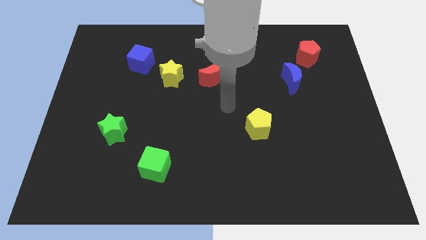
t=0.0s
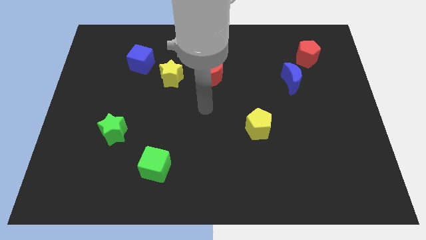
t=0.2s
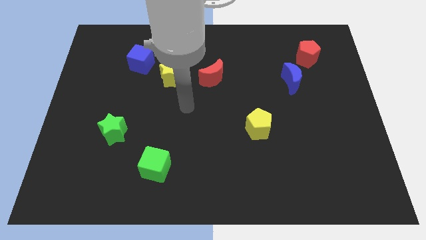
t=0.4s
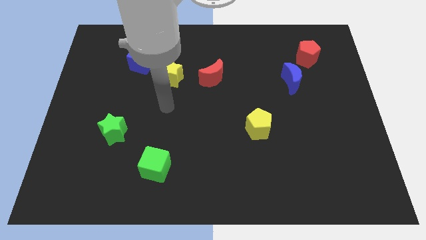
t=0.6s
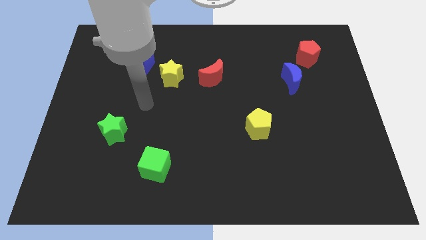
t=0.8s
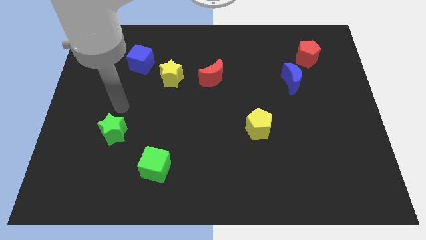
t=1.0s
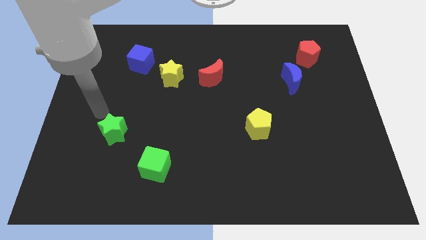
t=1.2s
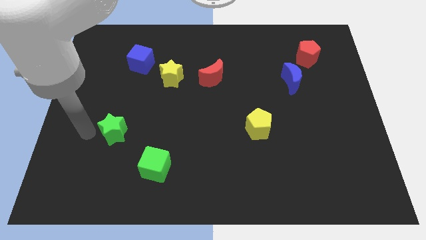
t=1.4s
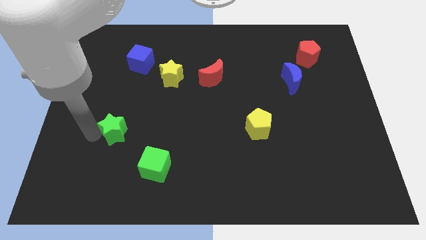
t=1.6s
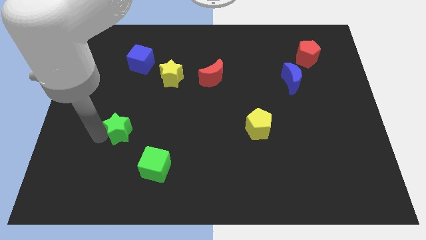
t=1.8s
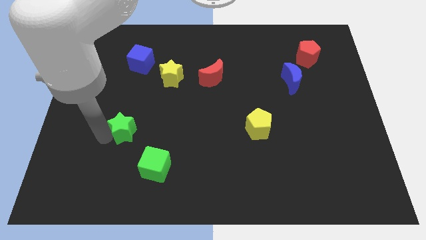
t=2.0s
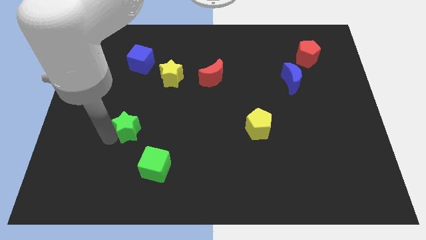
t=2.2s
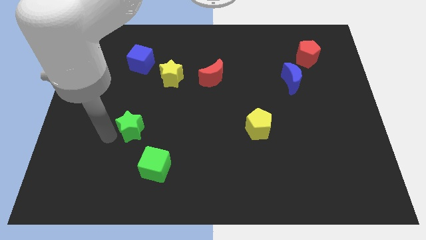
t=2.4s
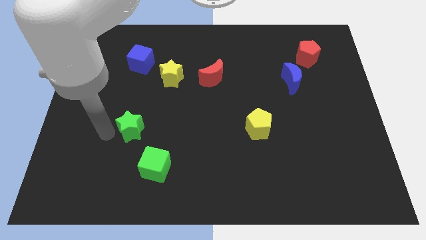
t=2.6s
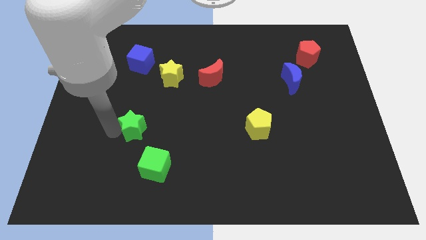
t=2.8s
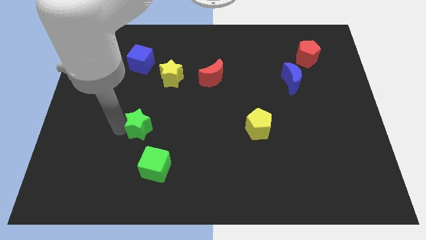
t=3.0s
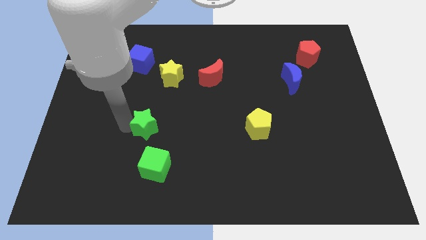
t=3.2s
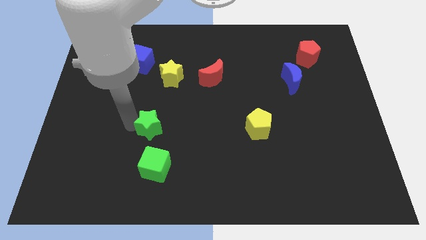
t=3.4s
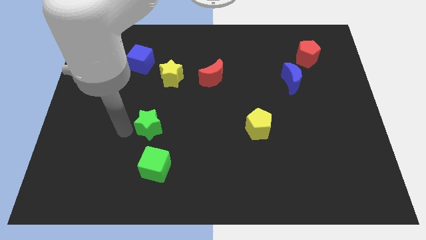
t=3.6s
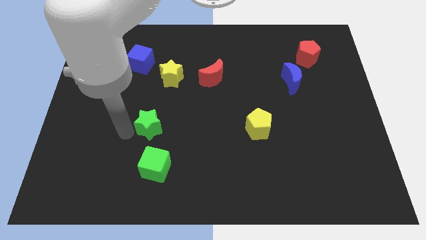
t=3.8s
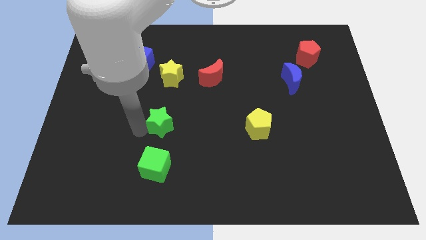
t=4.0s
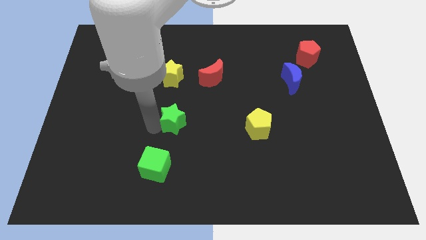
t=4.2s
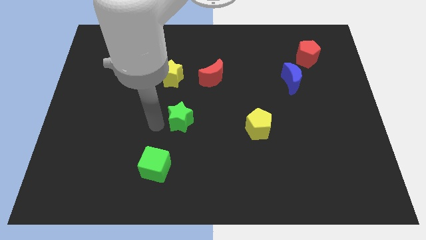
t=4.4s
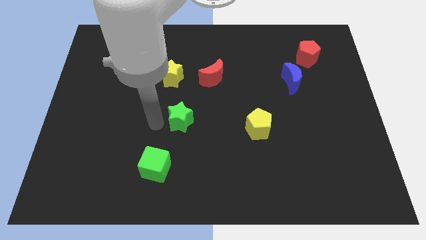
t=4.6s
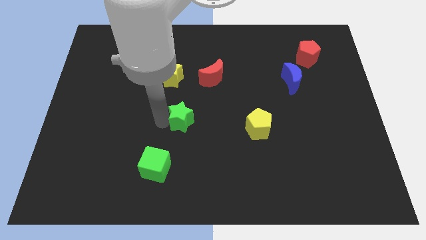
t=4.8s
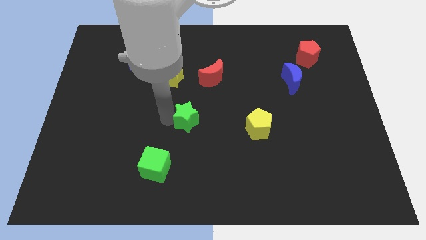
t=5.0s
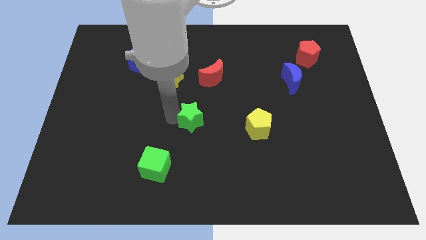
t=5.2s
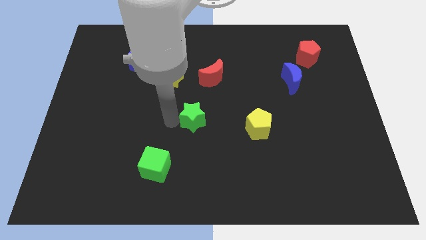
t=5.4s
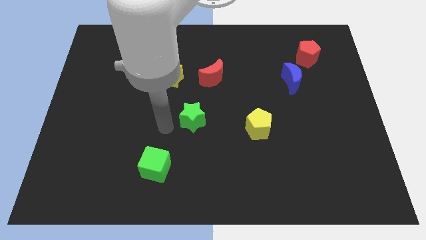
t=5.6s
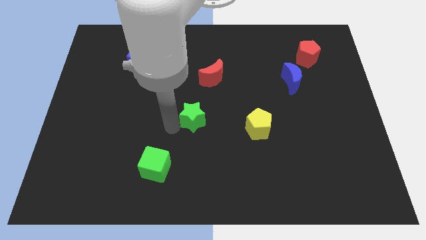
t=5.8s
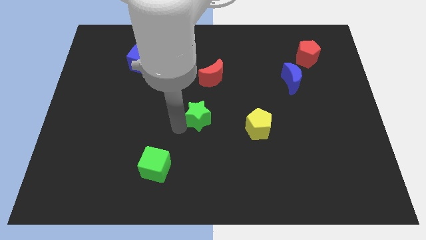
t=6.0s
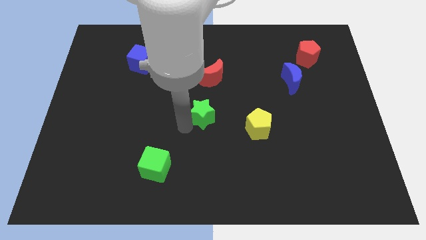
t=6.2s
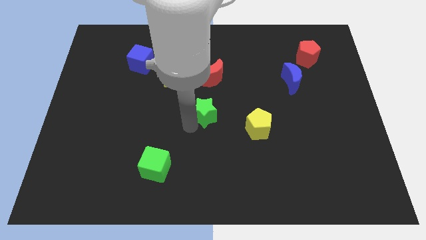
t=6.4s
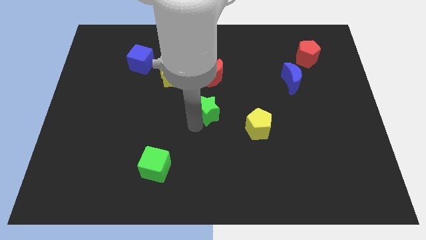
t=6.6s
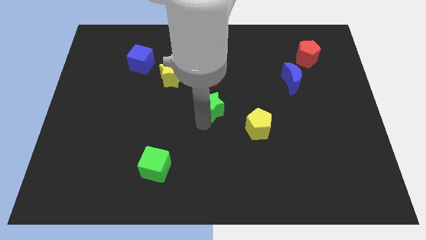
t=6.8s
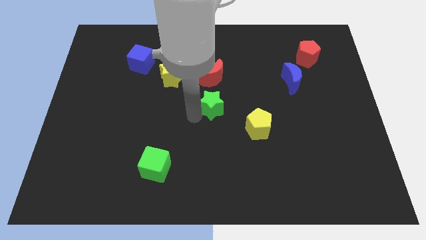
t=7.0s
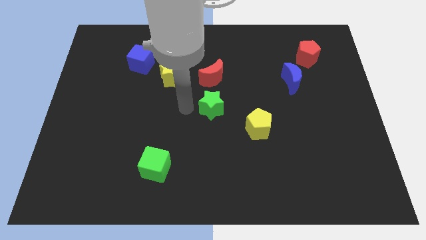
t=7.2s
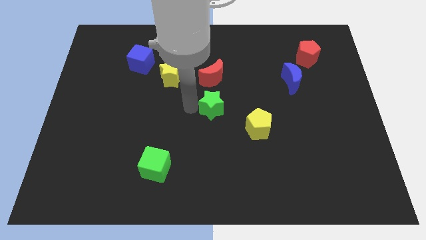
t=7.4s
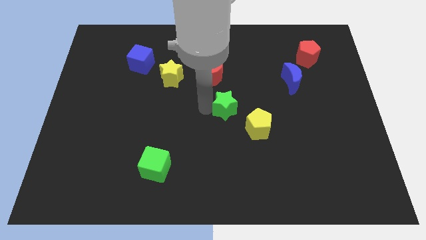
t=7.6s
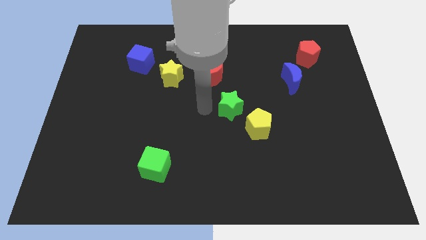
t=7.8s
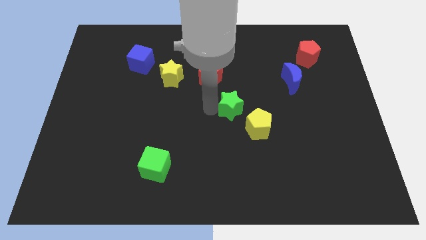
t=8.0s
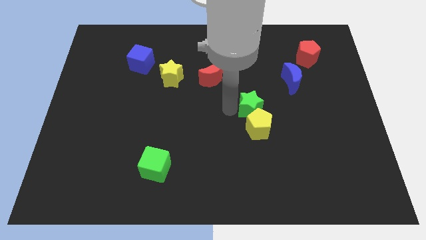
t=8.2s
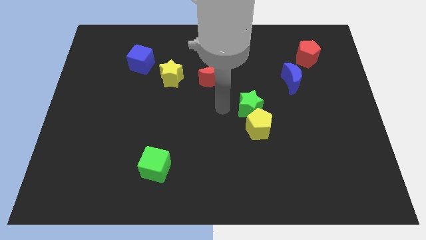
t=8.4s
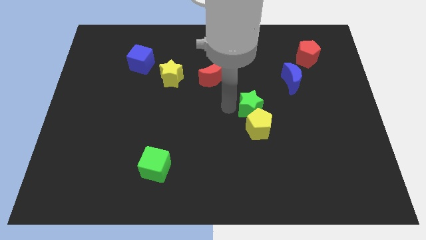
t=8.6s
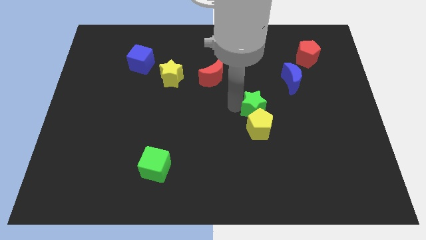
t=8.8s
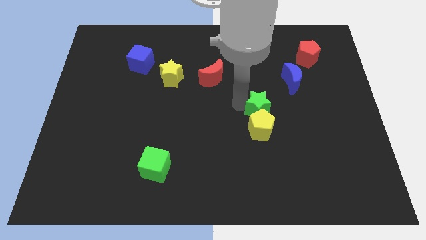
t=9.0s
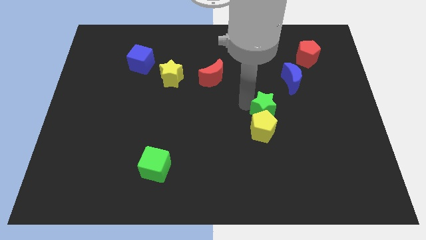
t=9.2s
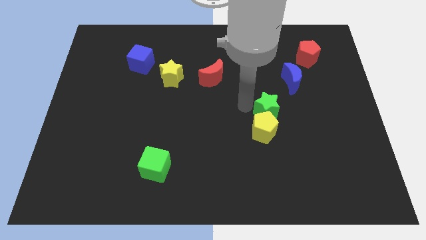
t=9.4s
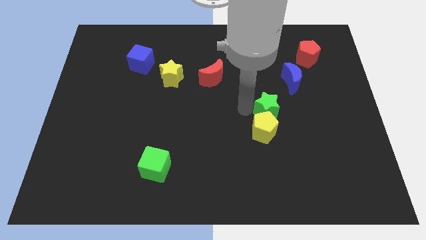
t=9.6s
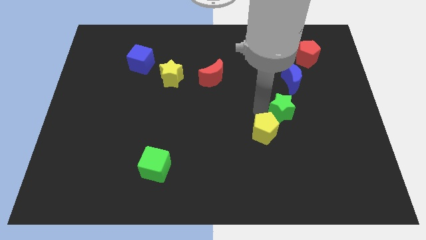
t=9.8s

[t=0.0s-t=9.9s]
slide the green star to the bottom of the blue moon

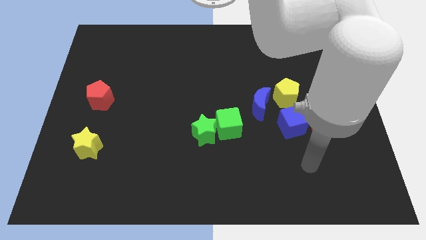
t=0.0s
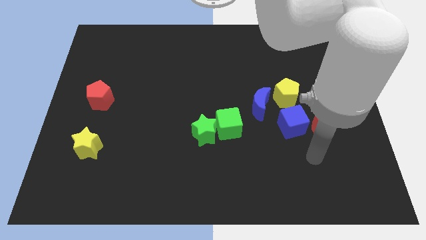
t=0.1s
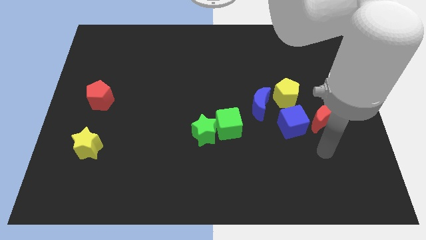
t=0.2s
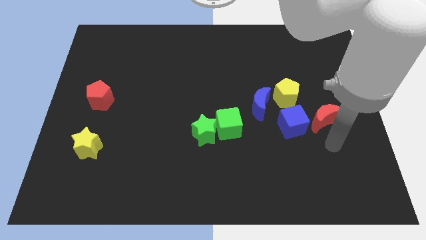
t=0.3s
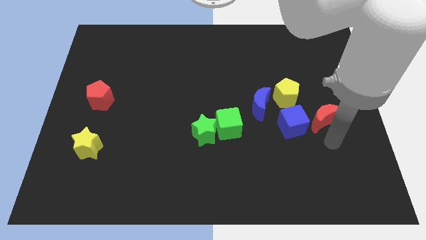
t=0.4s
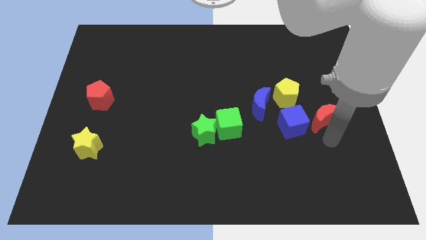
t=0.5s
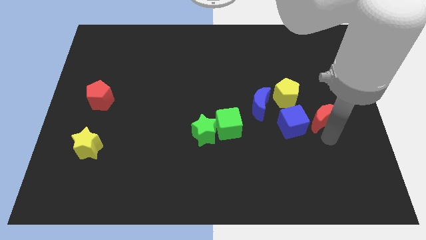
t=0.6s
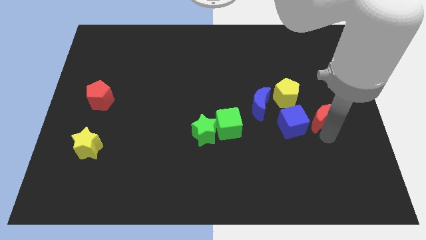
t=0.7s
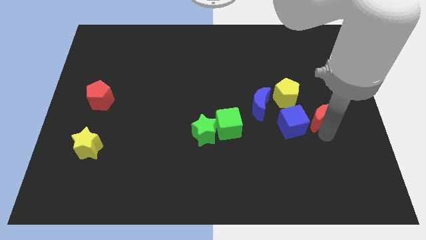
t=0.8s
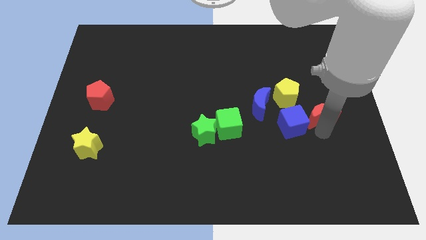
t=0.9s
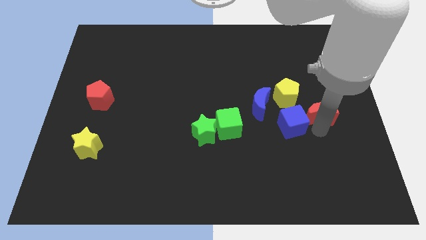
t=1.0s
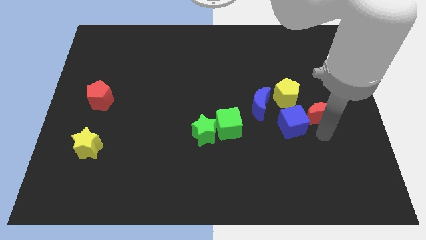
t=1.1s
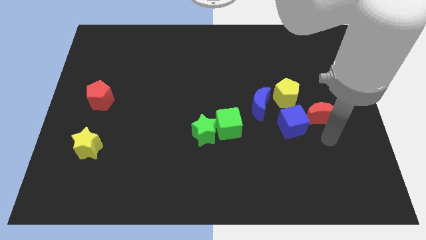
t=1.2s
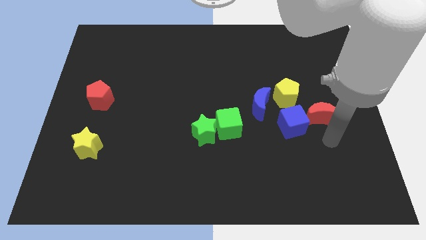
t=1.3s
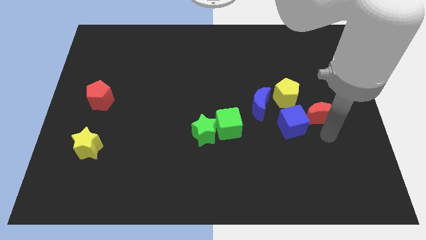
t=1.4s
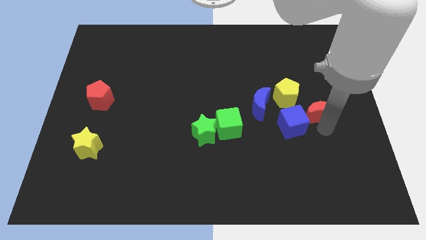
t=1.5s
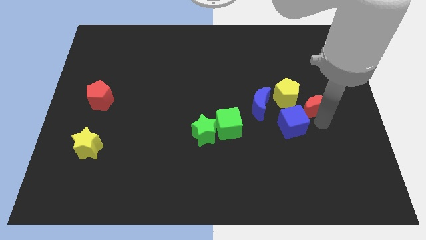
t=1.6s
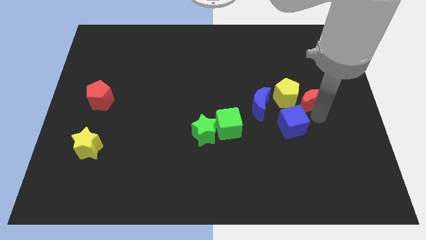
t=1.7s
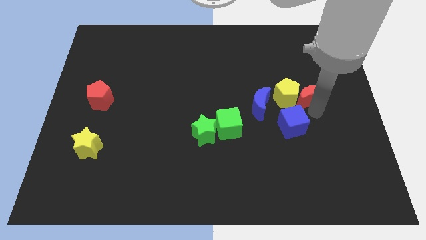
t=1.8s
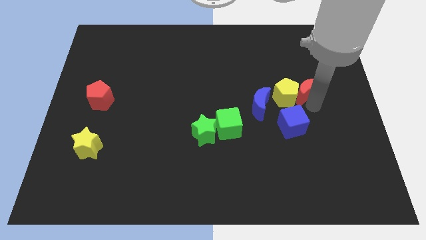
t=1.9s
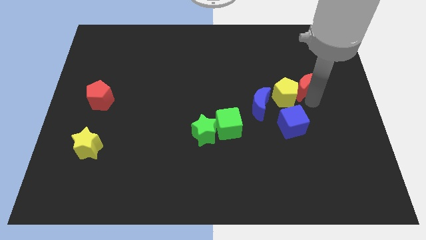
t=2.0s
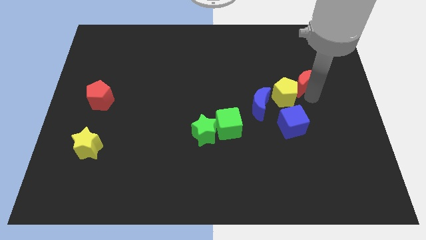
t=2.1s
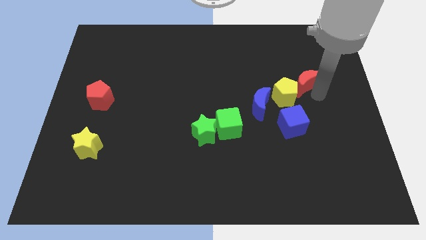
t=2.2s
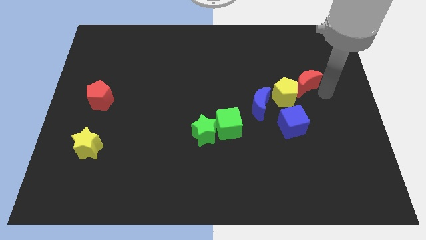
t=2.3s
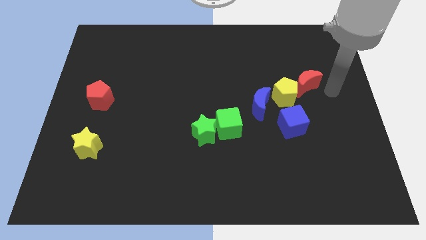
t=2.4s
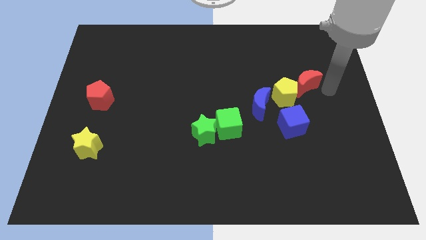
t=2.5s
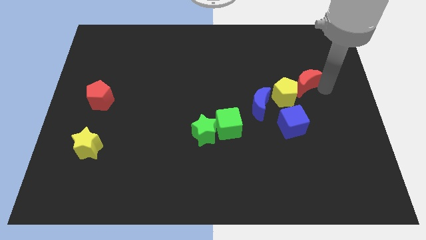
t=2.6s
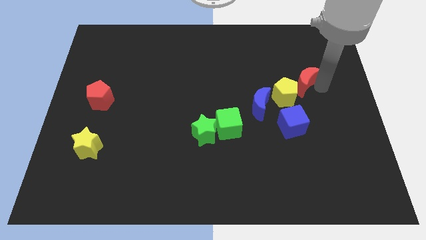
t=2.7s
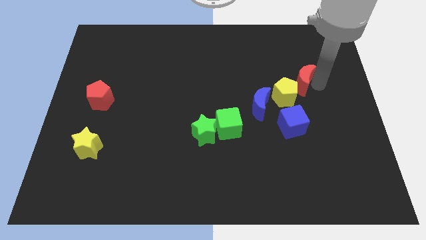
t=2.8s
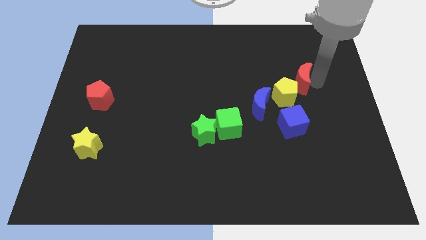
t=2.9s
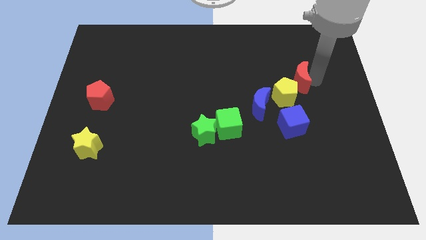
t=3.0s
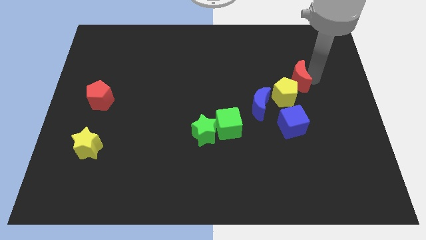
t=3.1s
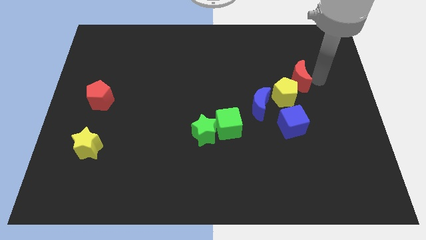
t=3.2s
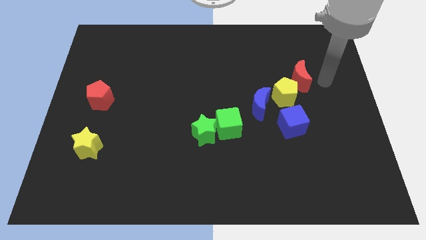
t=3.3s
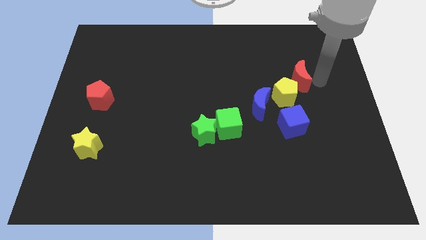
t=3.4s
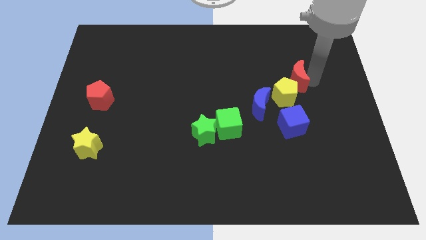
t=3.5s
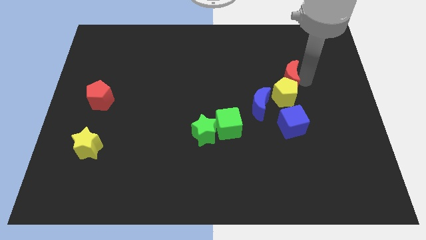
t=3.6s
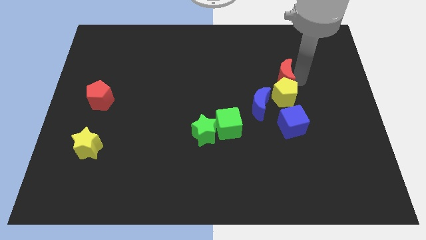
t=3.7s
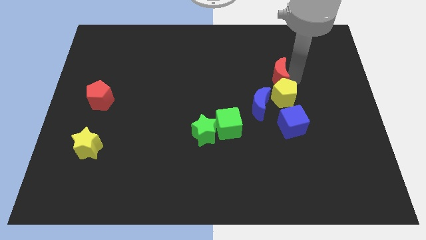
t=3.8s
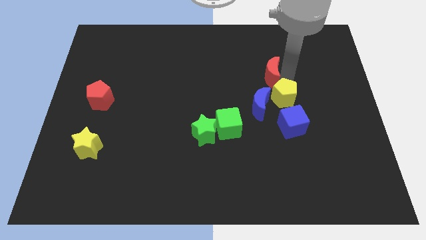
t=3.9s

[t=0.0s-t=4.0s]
slide the red moon above the blue moon

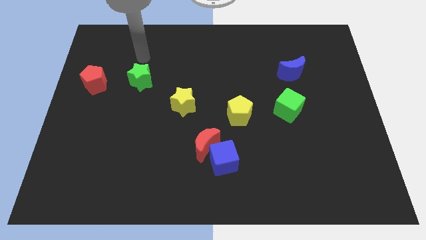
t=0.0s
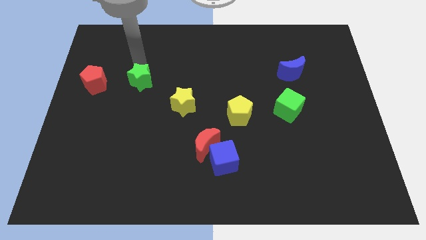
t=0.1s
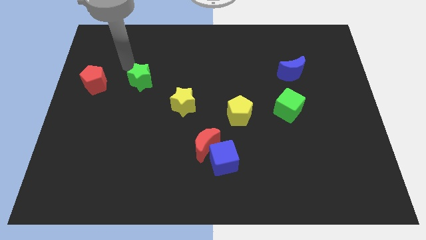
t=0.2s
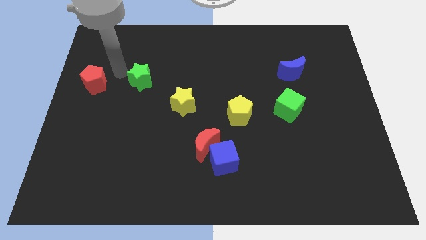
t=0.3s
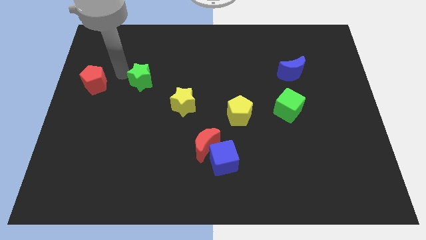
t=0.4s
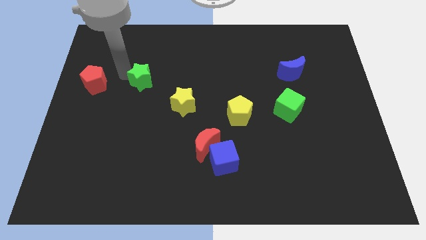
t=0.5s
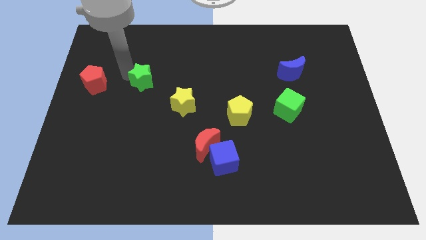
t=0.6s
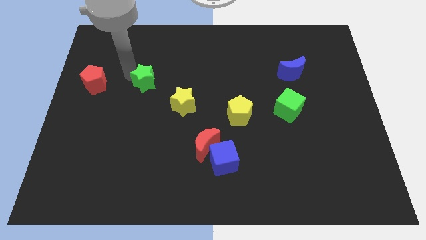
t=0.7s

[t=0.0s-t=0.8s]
slide the green star diagonally up and to the left of the yellow star
